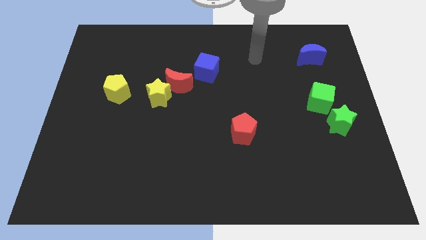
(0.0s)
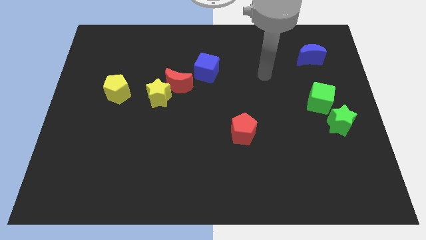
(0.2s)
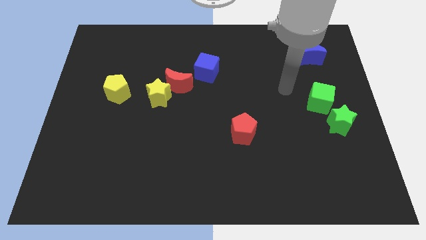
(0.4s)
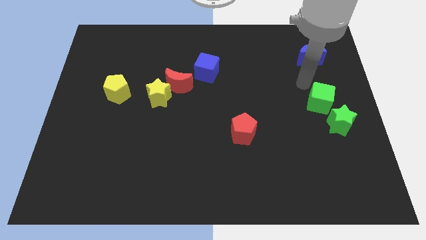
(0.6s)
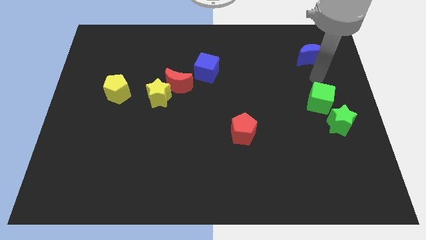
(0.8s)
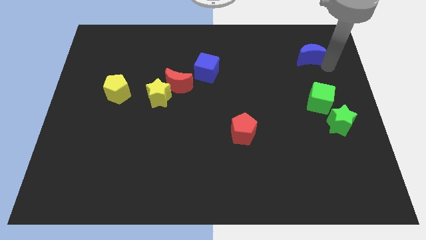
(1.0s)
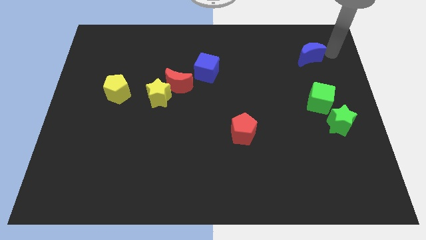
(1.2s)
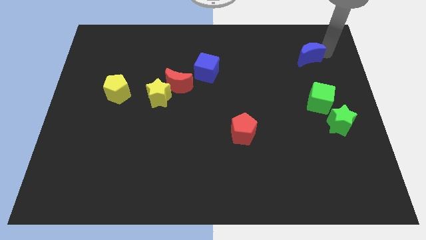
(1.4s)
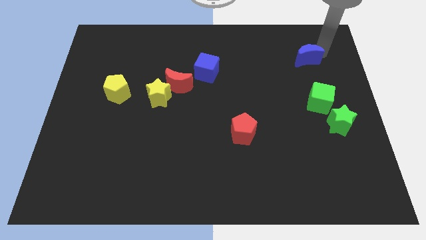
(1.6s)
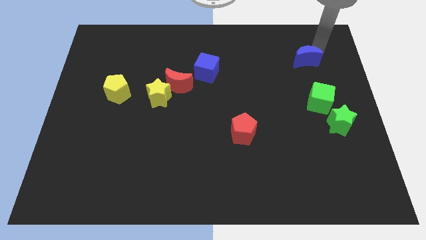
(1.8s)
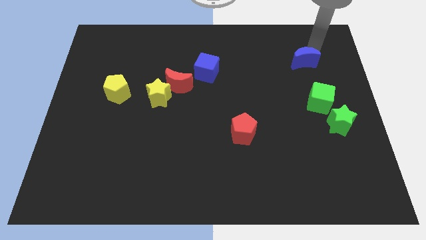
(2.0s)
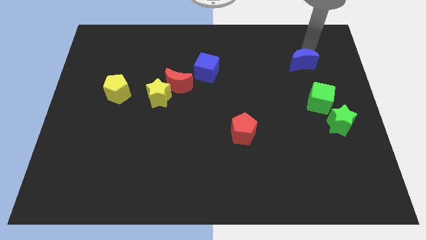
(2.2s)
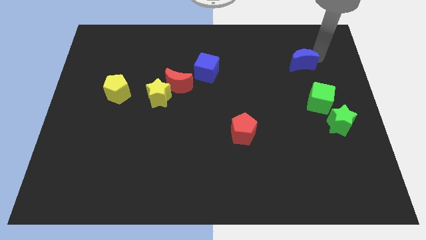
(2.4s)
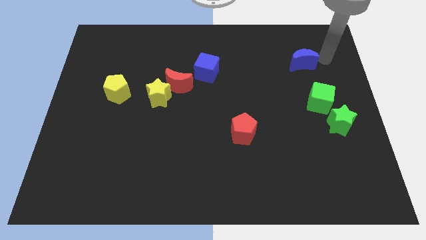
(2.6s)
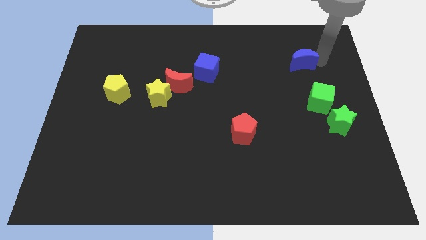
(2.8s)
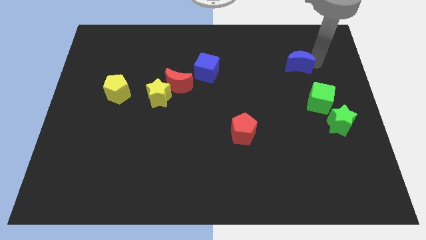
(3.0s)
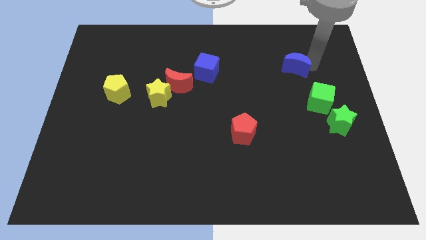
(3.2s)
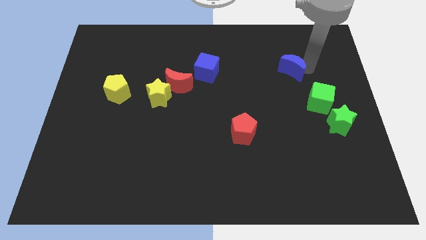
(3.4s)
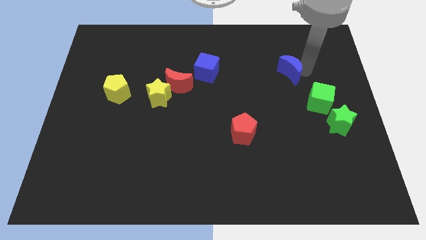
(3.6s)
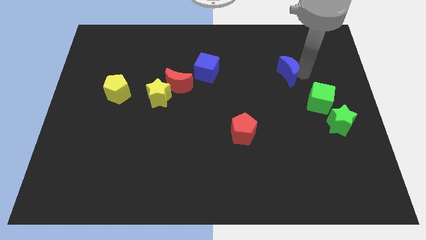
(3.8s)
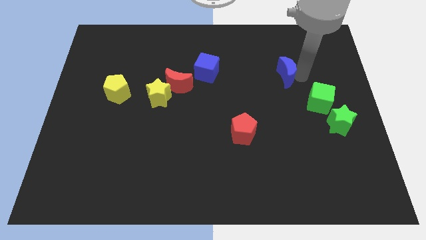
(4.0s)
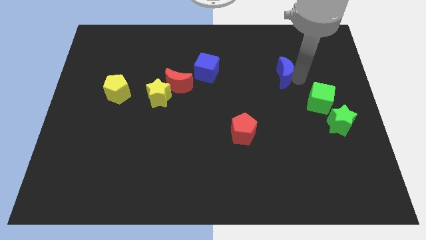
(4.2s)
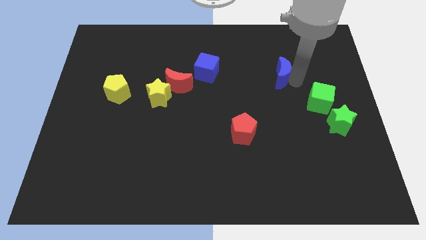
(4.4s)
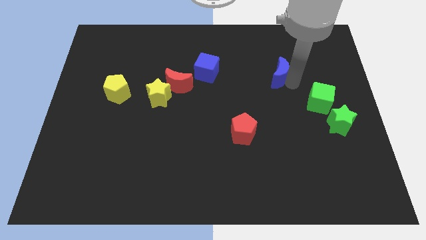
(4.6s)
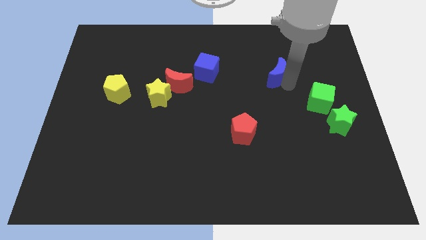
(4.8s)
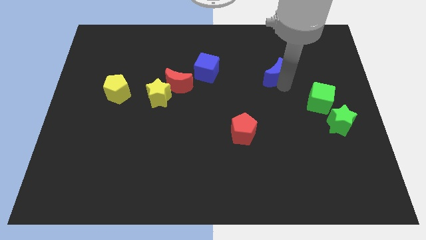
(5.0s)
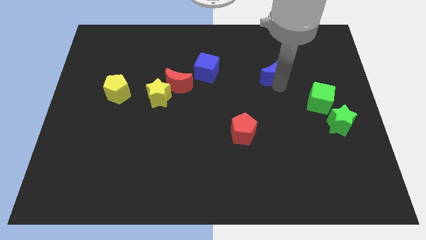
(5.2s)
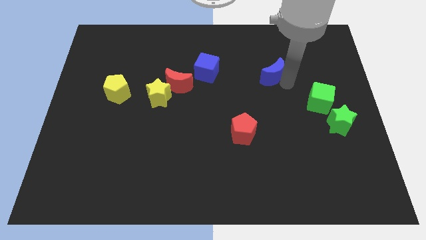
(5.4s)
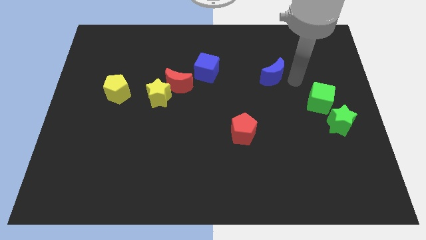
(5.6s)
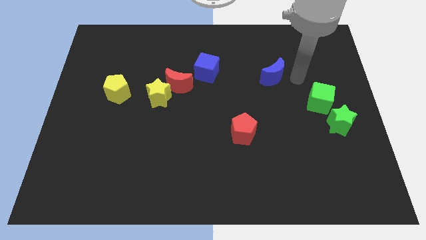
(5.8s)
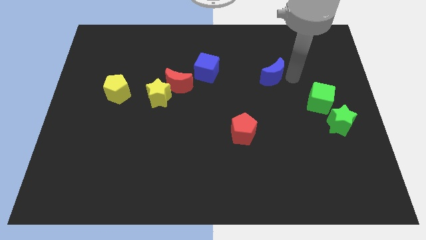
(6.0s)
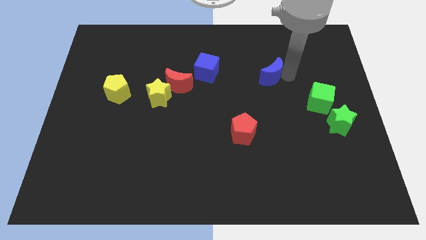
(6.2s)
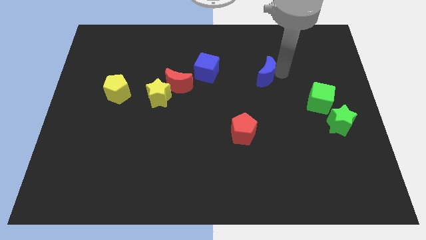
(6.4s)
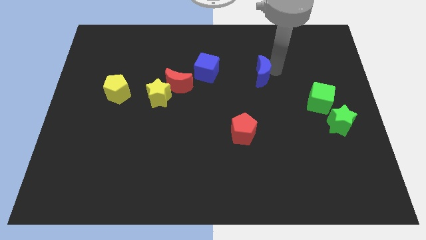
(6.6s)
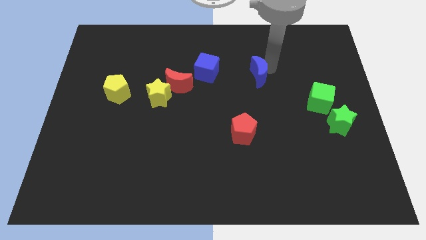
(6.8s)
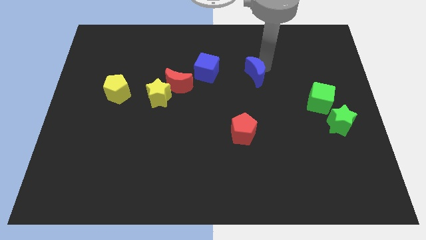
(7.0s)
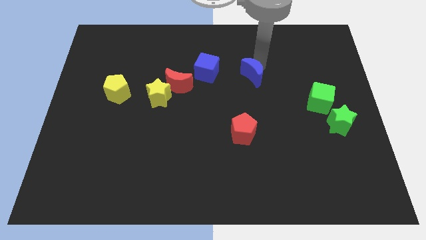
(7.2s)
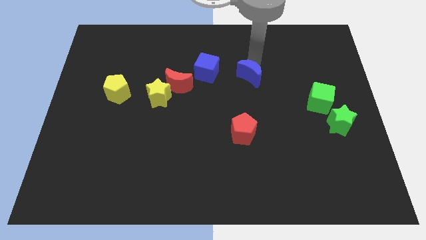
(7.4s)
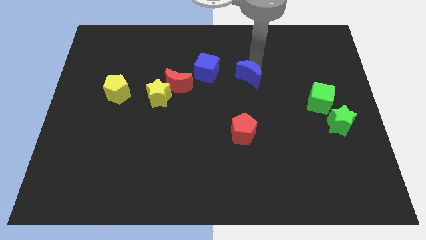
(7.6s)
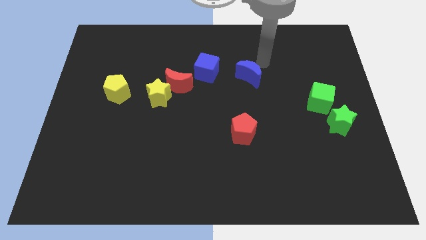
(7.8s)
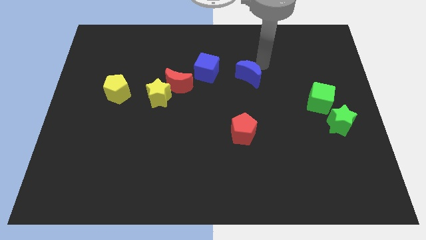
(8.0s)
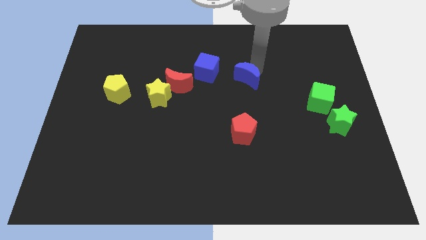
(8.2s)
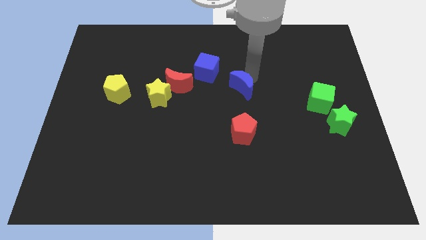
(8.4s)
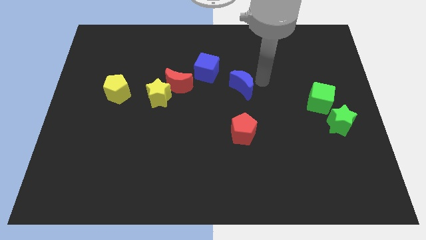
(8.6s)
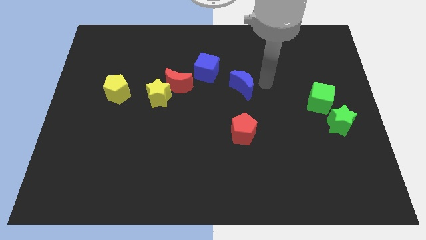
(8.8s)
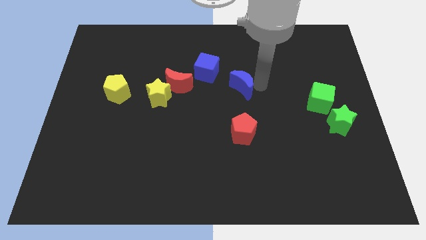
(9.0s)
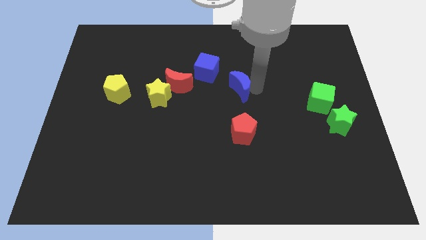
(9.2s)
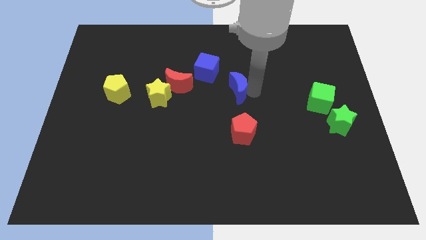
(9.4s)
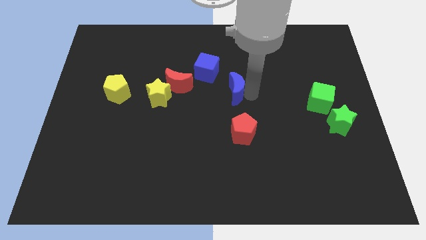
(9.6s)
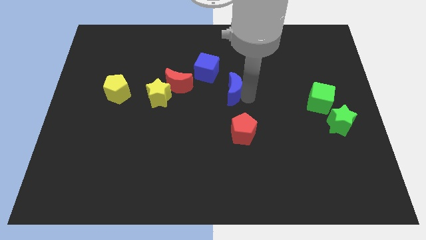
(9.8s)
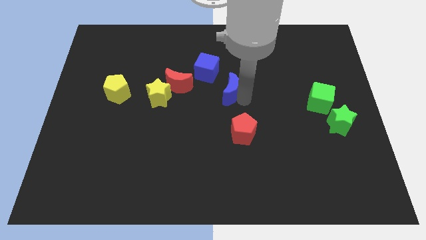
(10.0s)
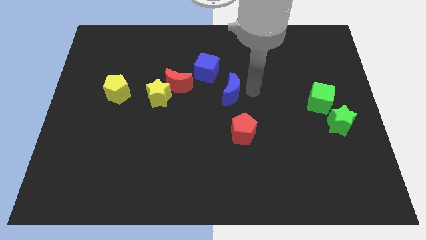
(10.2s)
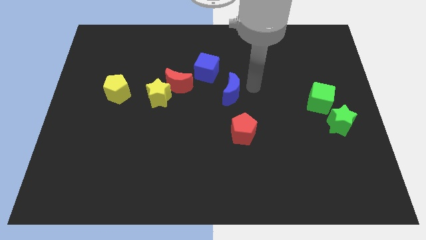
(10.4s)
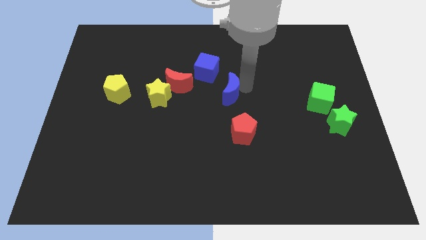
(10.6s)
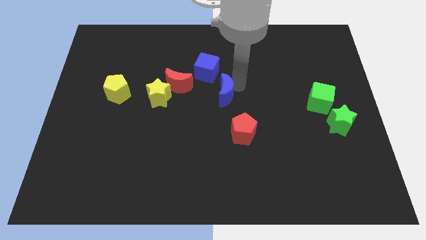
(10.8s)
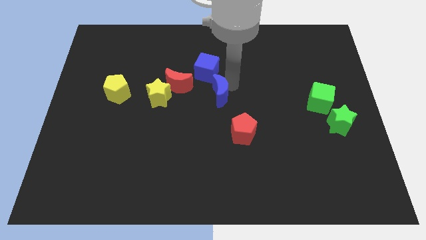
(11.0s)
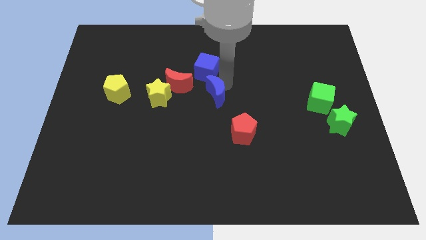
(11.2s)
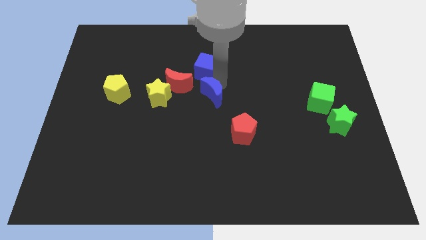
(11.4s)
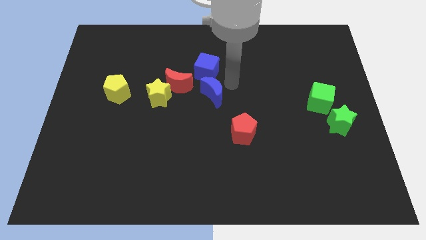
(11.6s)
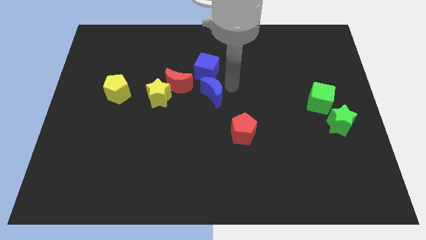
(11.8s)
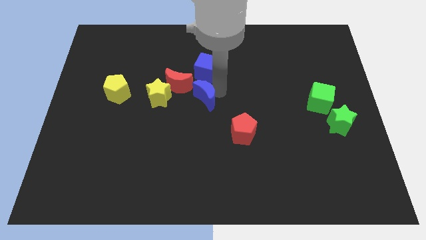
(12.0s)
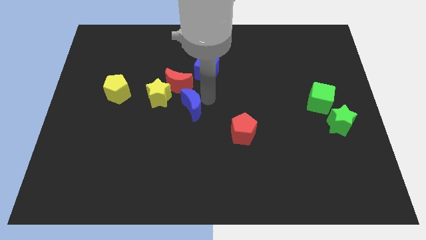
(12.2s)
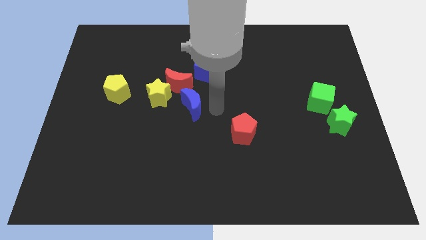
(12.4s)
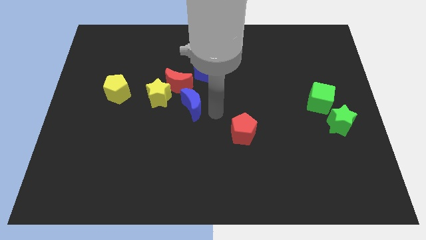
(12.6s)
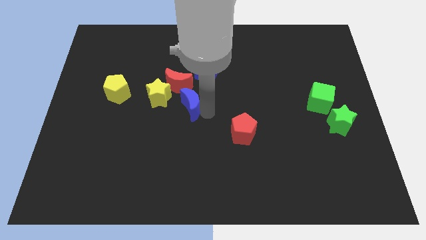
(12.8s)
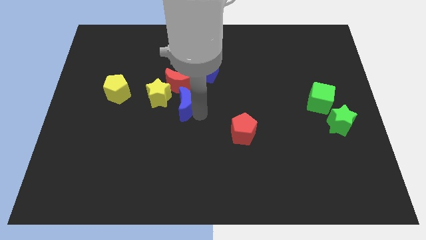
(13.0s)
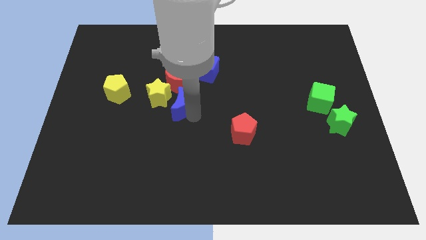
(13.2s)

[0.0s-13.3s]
put the blue moon to the yellow star

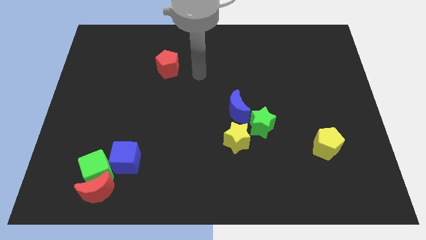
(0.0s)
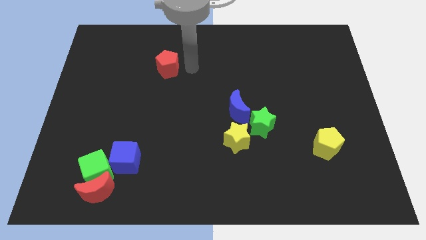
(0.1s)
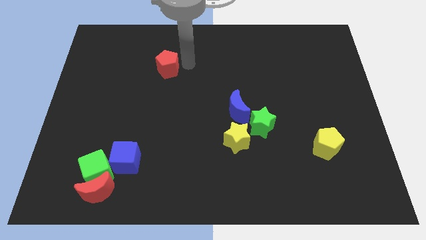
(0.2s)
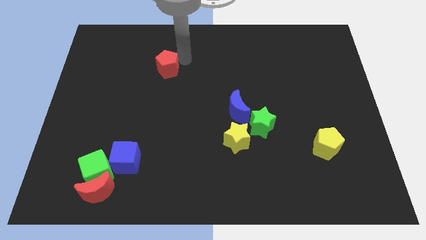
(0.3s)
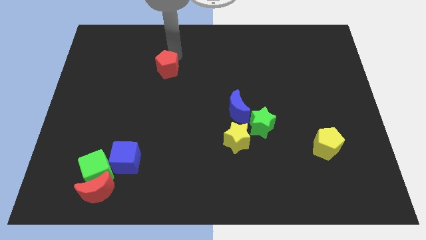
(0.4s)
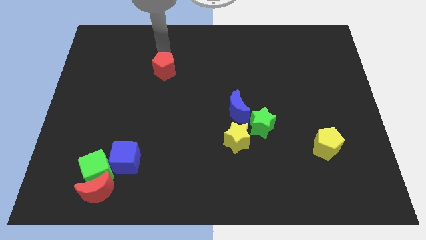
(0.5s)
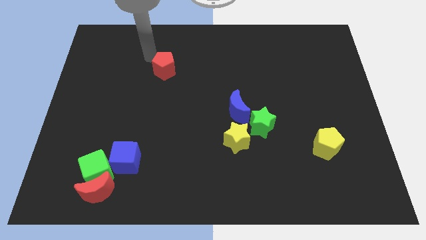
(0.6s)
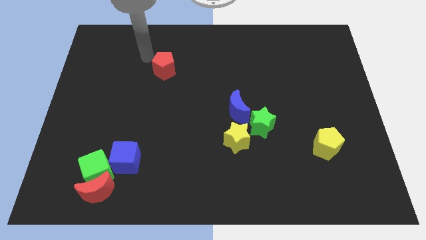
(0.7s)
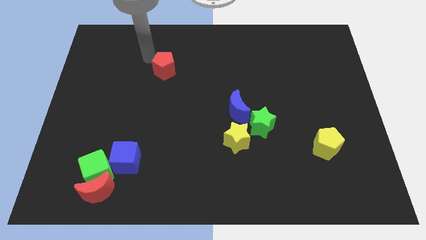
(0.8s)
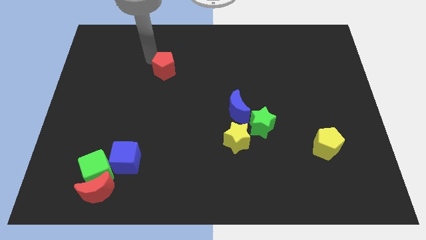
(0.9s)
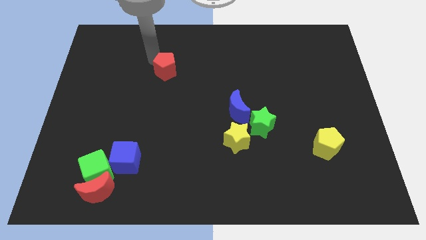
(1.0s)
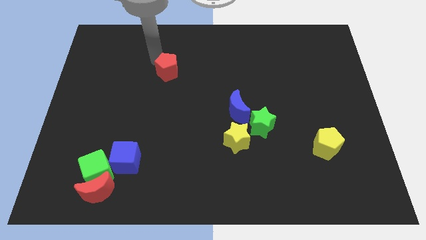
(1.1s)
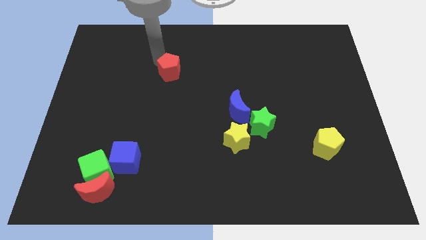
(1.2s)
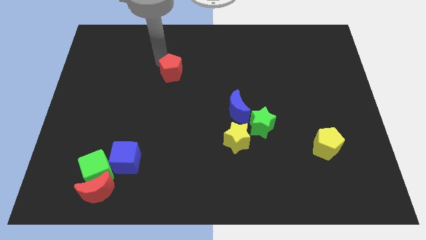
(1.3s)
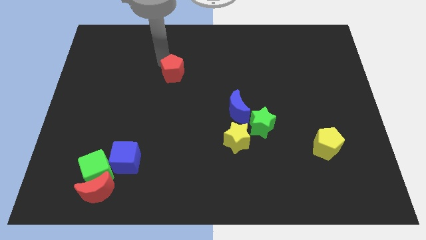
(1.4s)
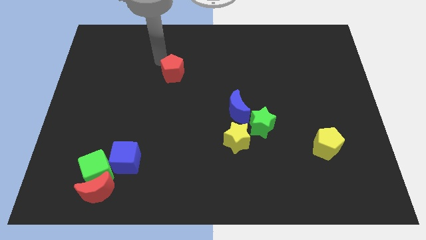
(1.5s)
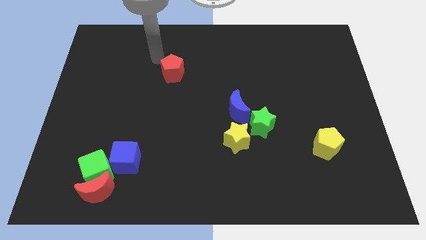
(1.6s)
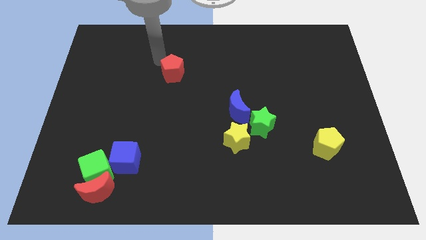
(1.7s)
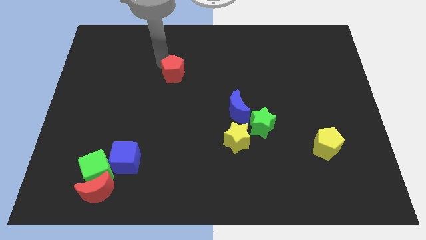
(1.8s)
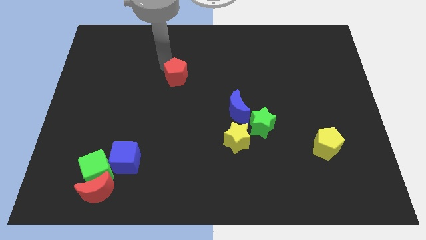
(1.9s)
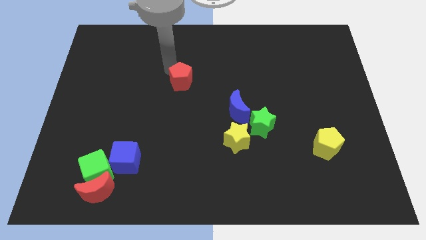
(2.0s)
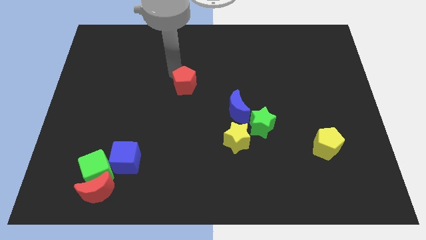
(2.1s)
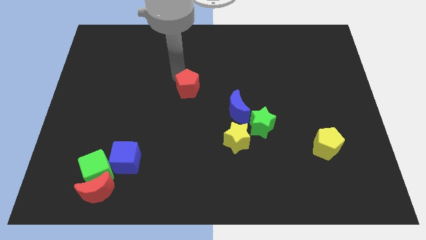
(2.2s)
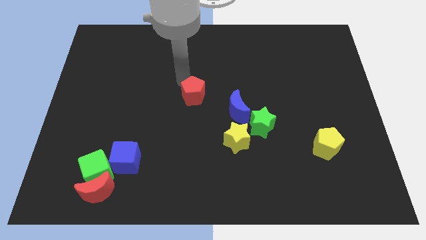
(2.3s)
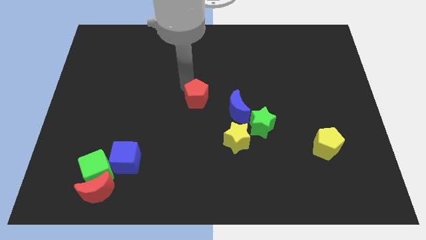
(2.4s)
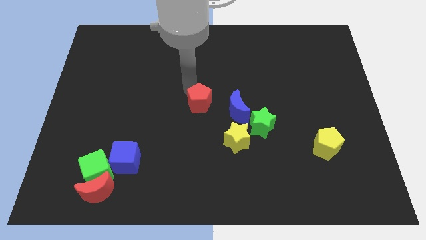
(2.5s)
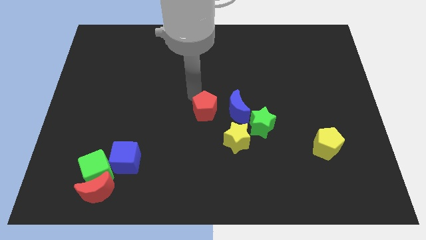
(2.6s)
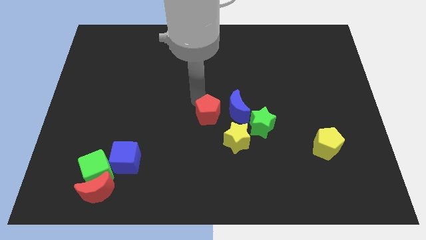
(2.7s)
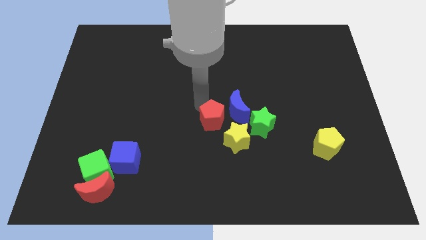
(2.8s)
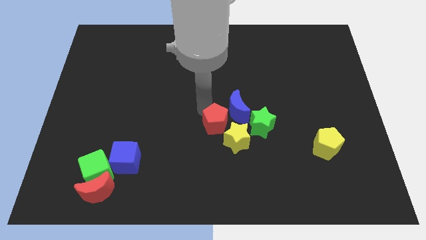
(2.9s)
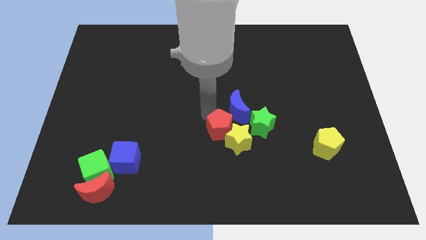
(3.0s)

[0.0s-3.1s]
push the red pentagon towards the yellow star
